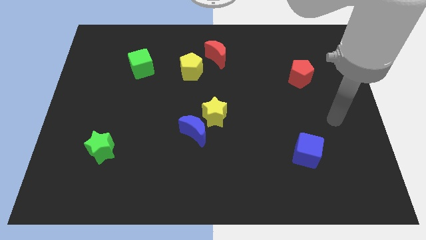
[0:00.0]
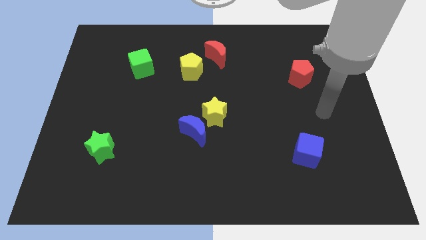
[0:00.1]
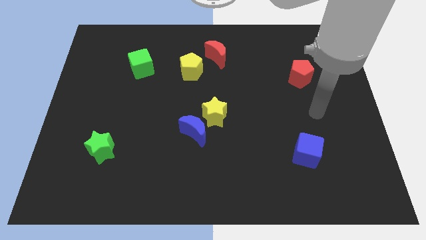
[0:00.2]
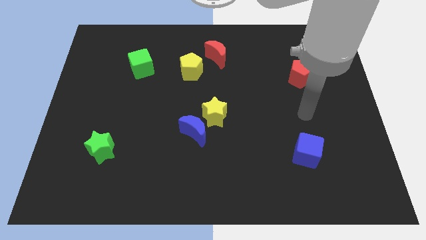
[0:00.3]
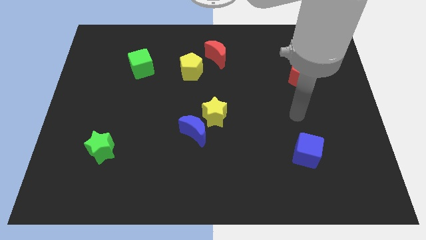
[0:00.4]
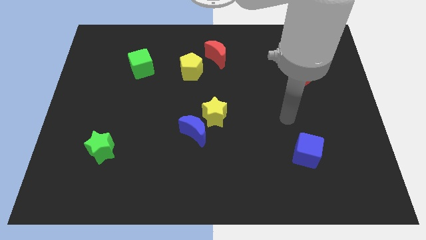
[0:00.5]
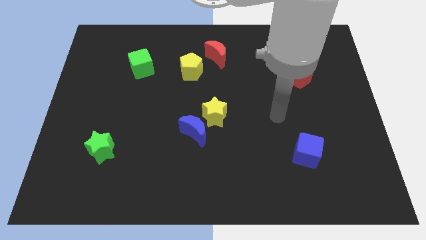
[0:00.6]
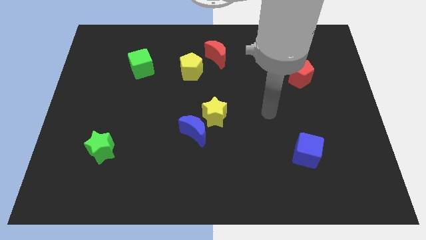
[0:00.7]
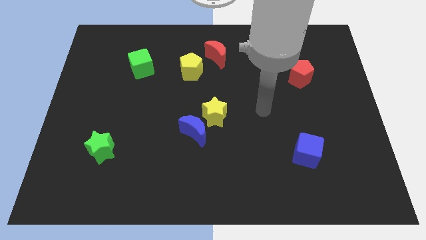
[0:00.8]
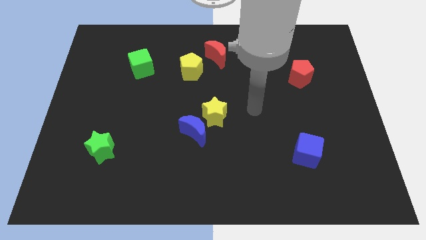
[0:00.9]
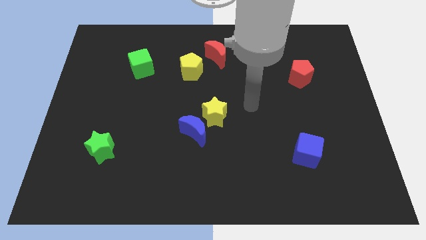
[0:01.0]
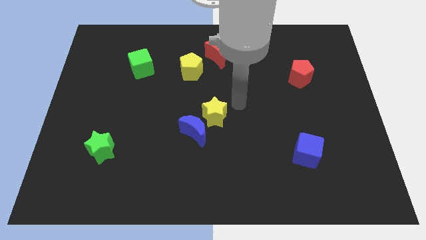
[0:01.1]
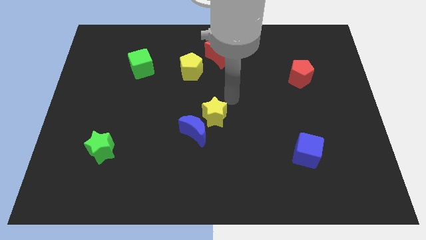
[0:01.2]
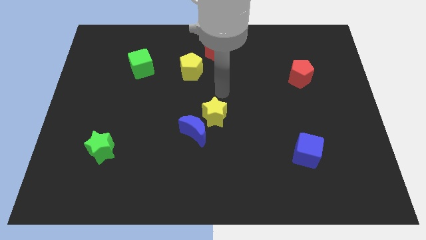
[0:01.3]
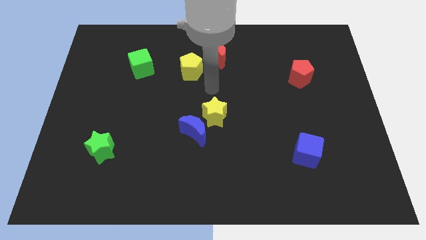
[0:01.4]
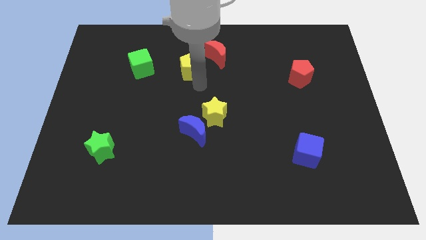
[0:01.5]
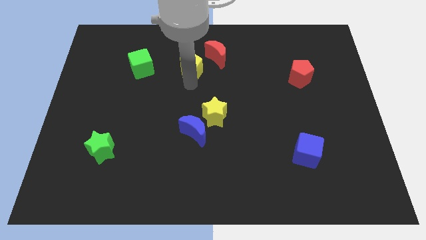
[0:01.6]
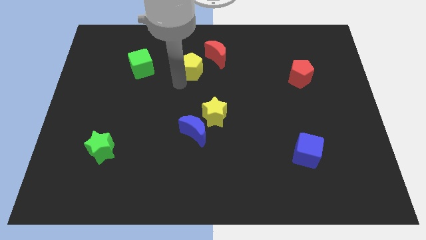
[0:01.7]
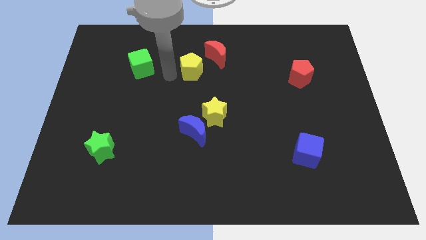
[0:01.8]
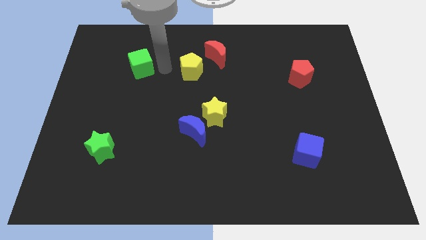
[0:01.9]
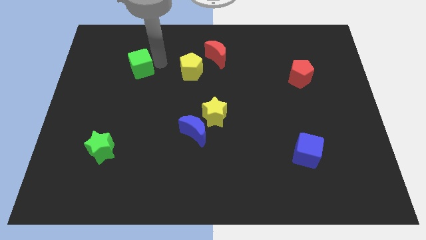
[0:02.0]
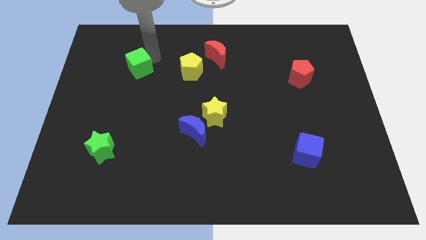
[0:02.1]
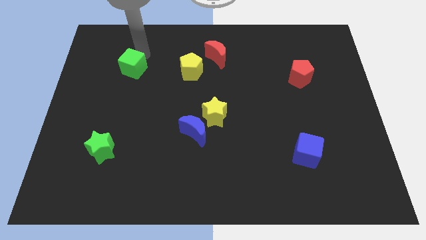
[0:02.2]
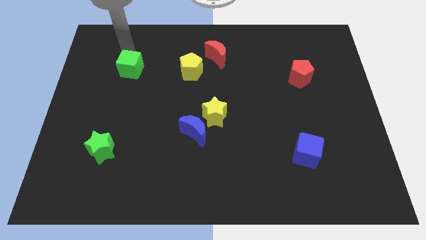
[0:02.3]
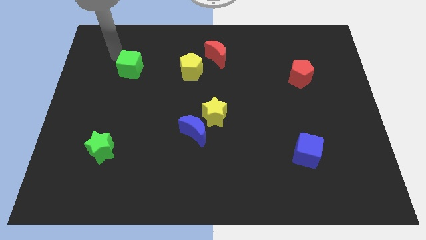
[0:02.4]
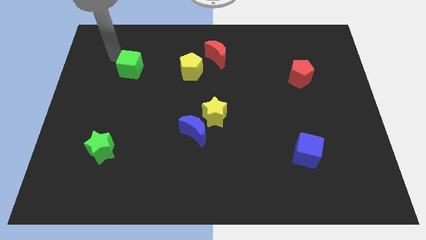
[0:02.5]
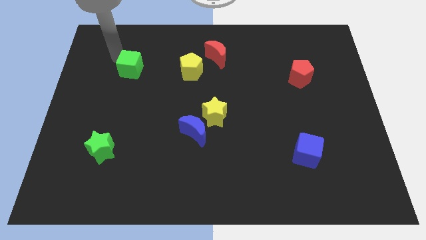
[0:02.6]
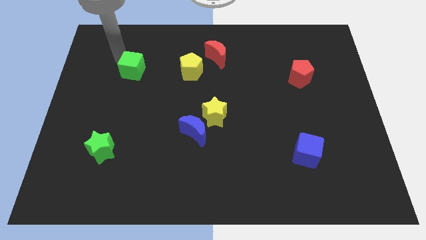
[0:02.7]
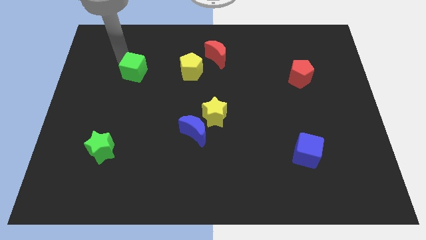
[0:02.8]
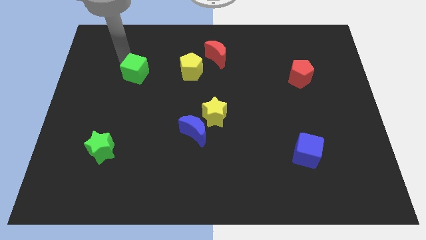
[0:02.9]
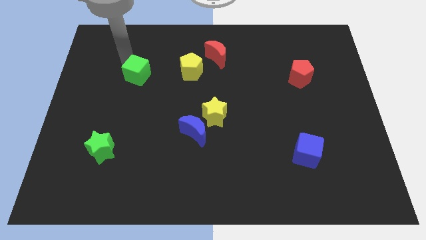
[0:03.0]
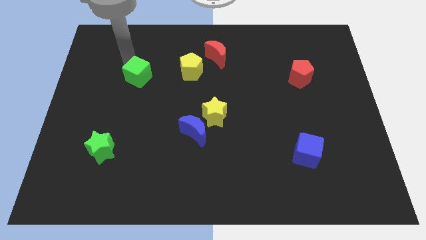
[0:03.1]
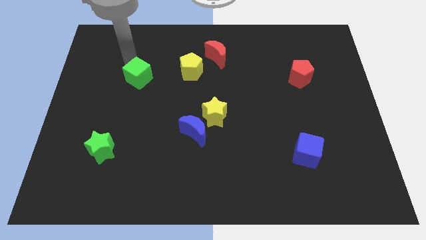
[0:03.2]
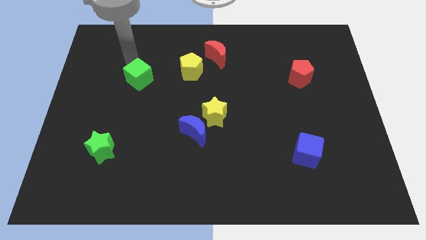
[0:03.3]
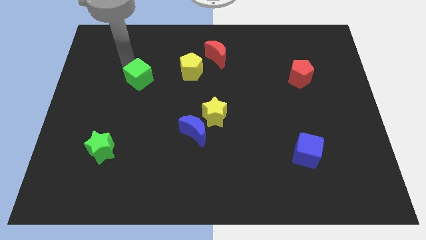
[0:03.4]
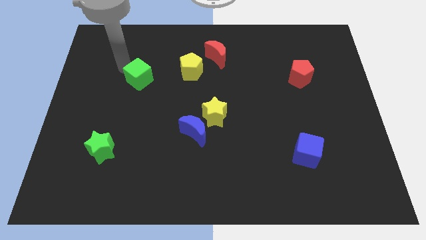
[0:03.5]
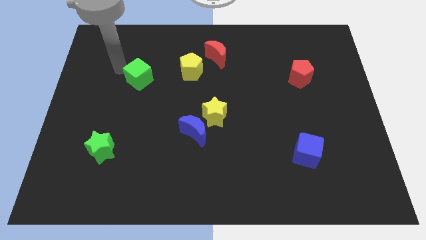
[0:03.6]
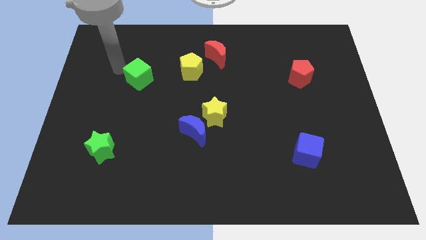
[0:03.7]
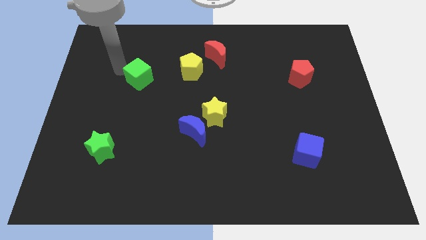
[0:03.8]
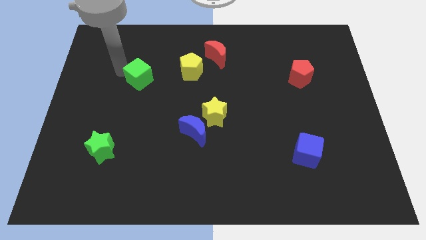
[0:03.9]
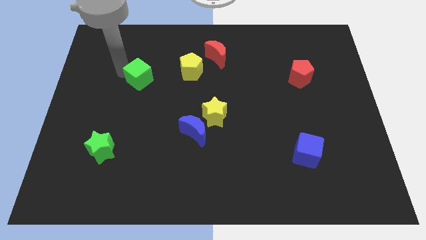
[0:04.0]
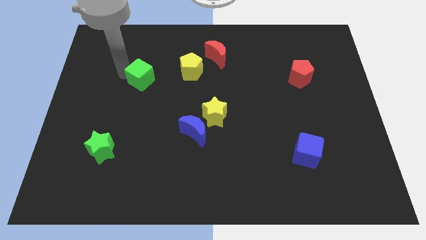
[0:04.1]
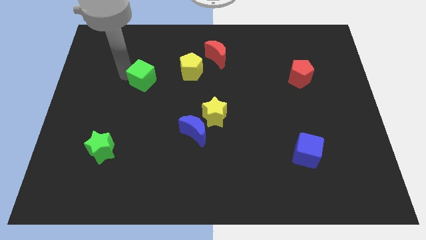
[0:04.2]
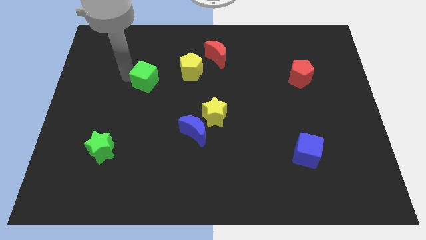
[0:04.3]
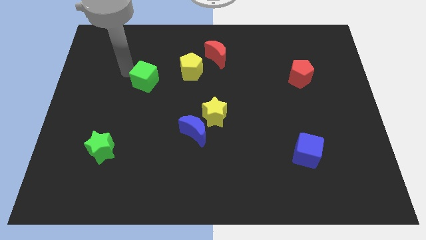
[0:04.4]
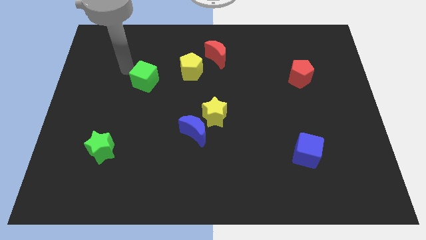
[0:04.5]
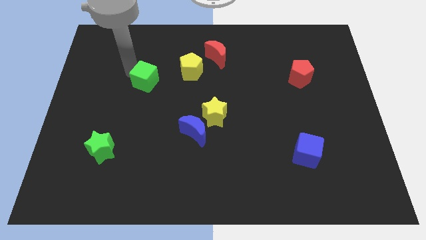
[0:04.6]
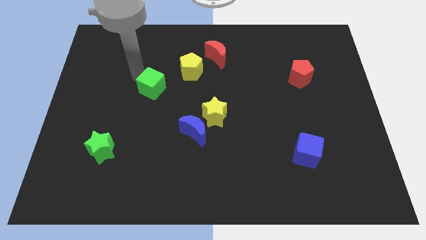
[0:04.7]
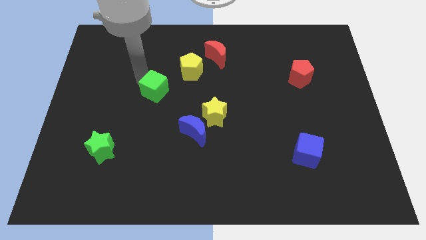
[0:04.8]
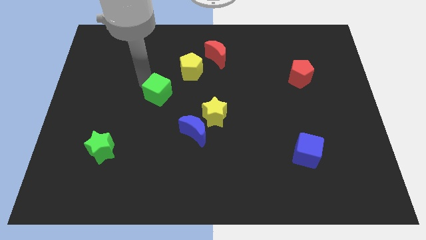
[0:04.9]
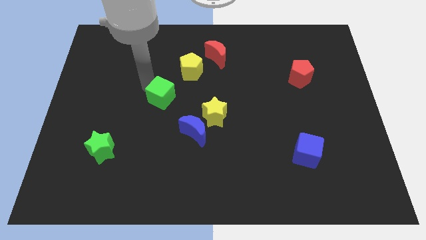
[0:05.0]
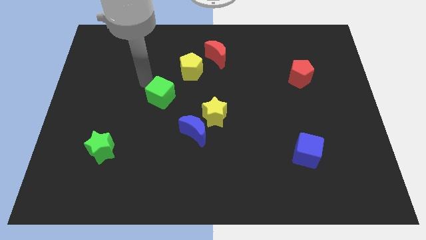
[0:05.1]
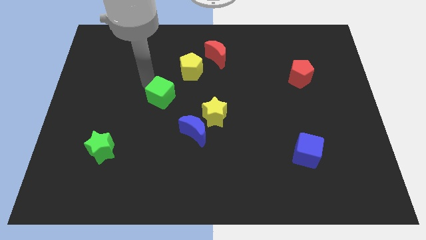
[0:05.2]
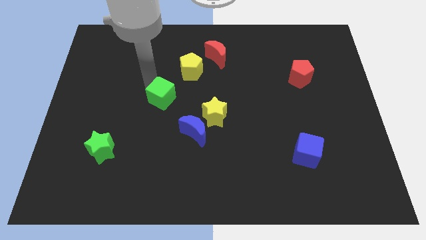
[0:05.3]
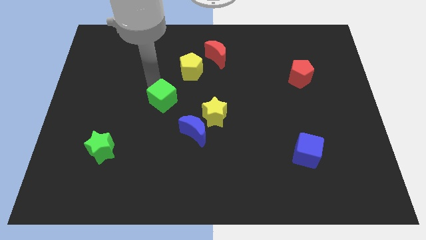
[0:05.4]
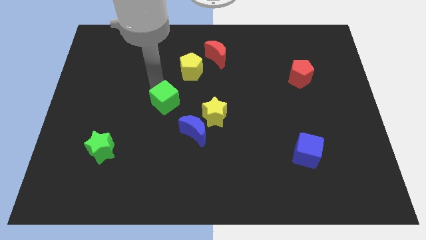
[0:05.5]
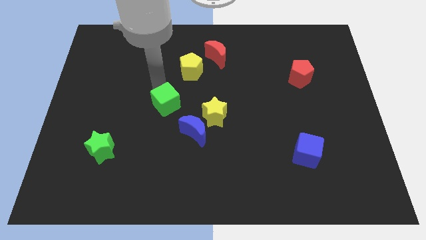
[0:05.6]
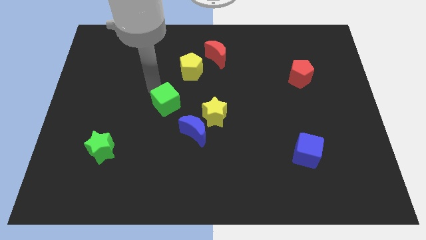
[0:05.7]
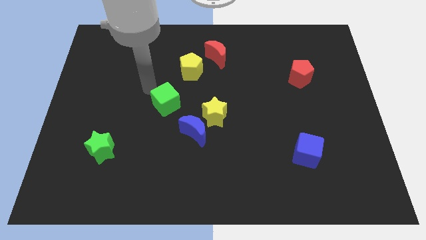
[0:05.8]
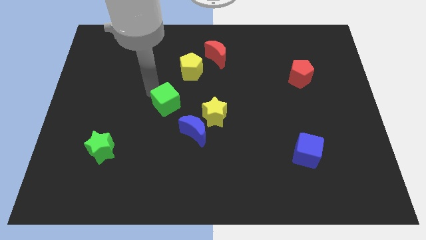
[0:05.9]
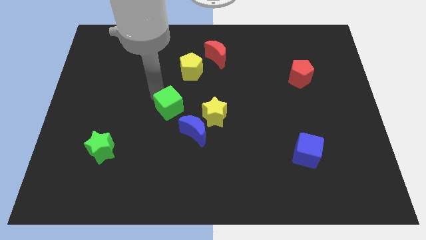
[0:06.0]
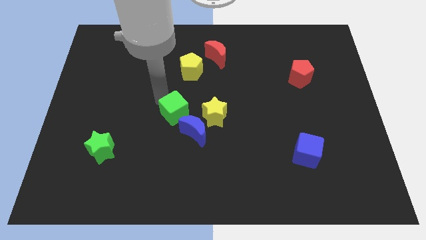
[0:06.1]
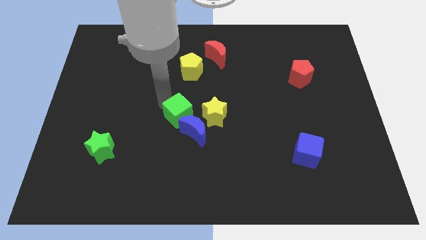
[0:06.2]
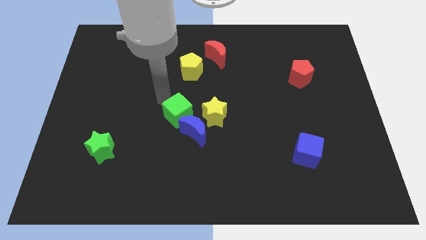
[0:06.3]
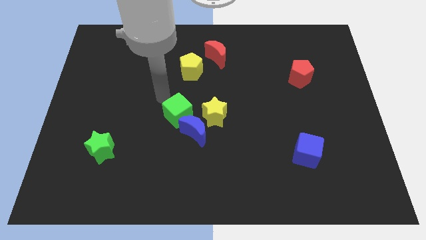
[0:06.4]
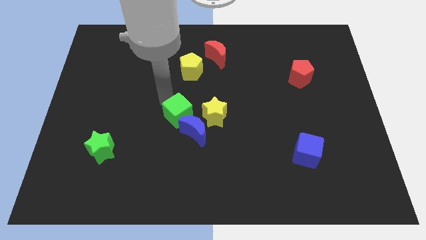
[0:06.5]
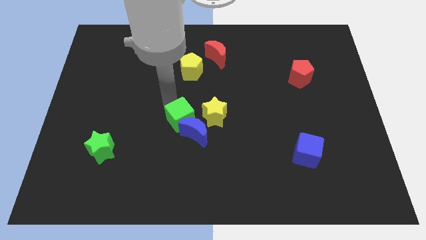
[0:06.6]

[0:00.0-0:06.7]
push the green cube towards the blue moon

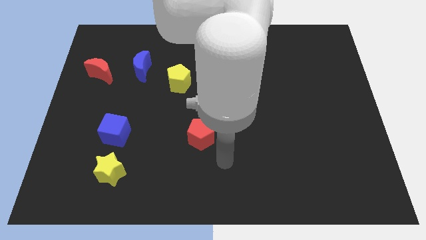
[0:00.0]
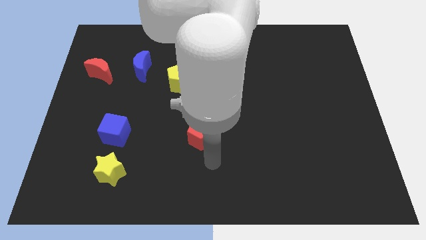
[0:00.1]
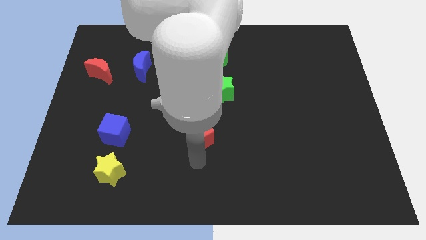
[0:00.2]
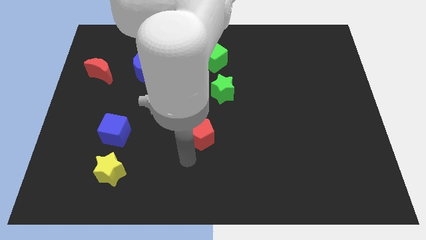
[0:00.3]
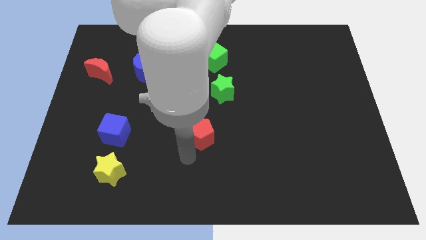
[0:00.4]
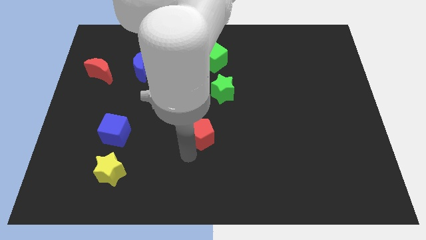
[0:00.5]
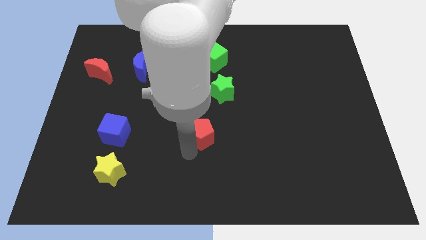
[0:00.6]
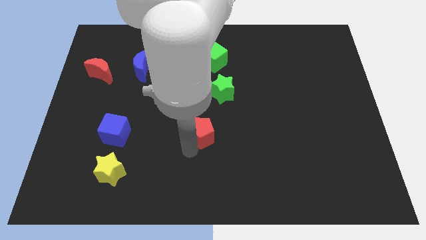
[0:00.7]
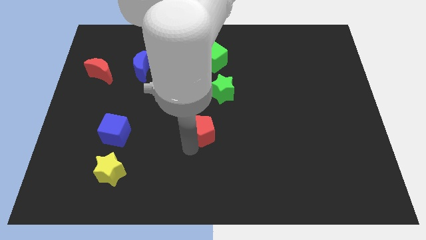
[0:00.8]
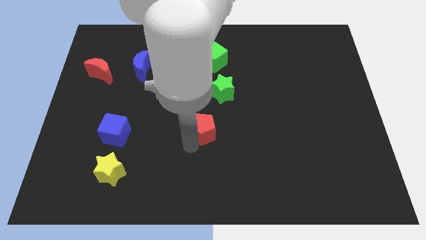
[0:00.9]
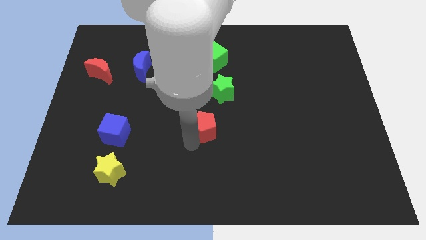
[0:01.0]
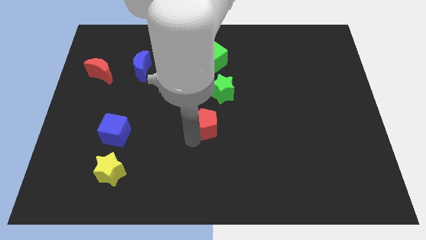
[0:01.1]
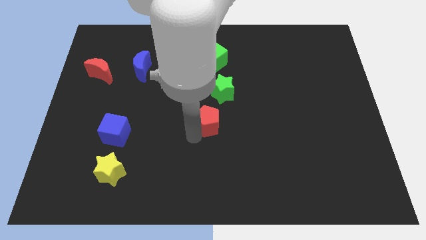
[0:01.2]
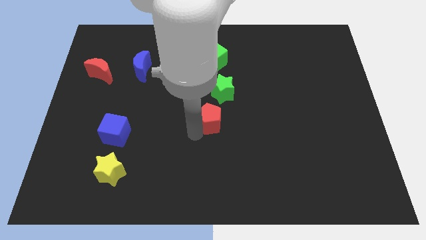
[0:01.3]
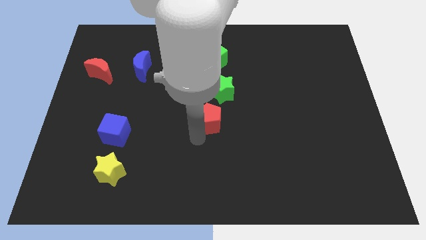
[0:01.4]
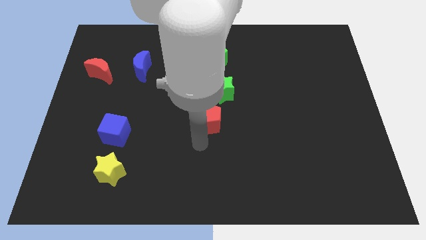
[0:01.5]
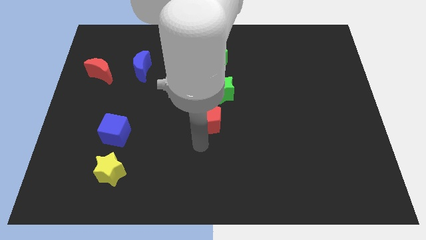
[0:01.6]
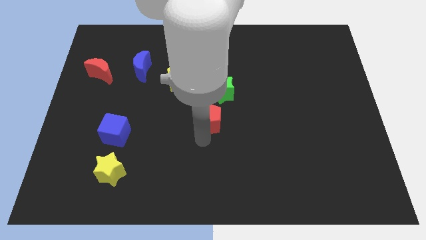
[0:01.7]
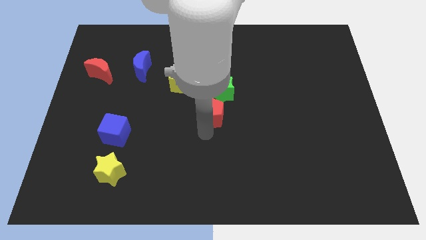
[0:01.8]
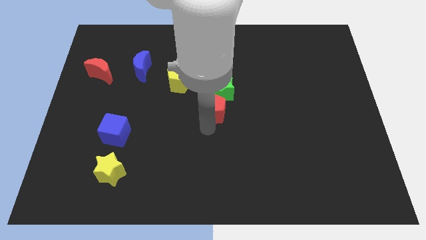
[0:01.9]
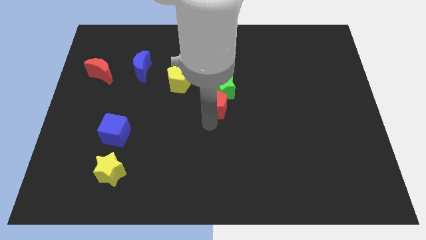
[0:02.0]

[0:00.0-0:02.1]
put the red pentagon close to the green star
